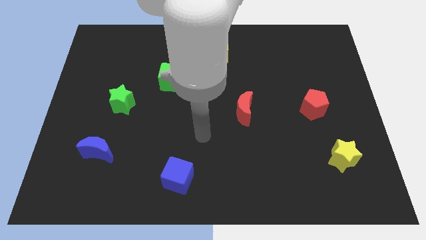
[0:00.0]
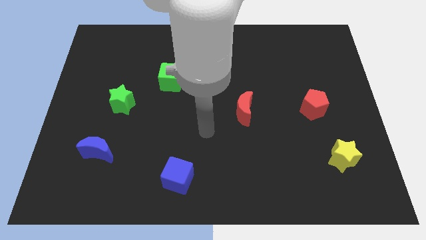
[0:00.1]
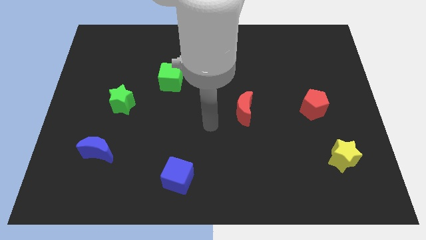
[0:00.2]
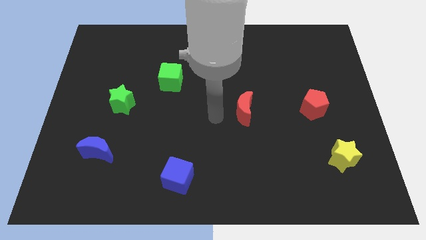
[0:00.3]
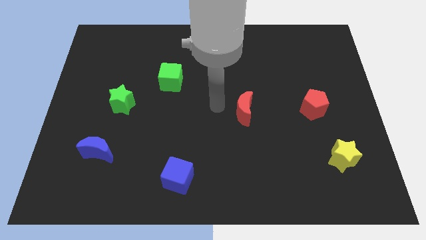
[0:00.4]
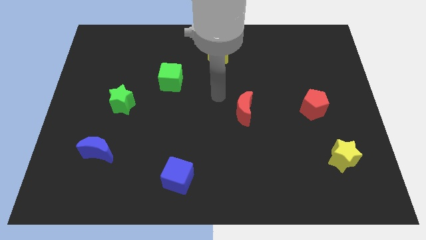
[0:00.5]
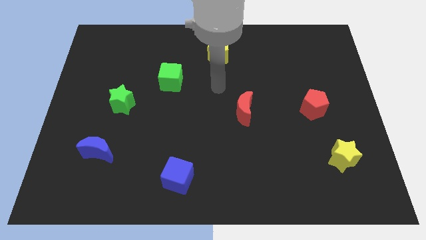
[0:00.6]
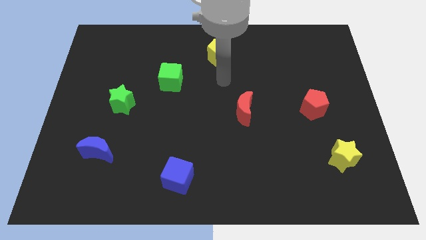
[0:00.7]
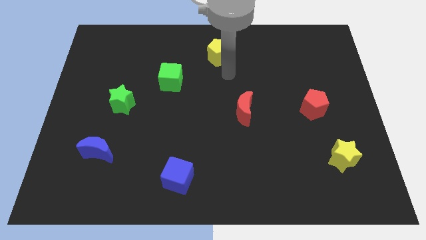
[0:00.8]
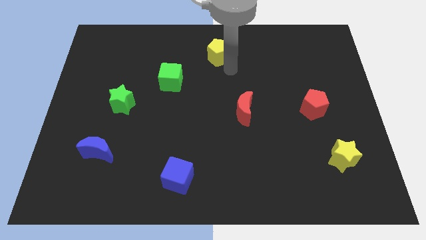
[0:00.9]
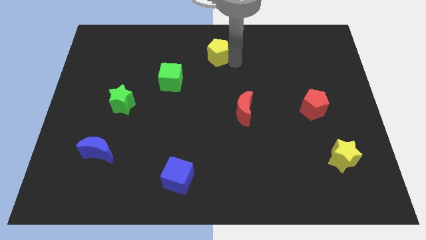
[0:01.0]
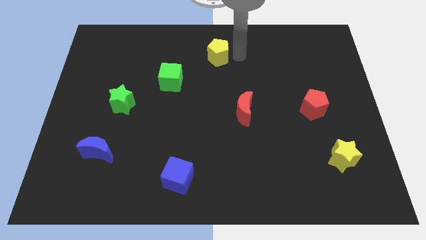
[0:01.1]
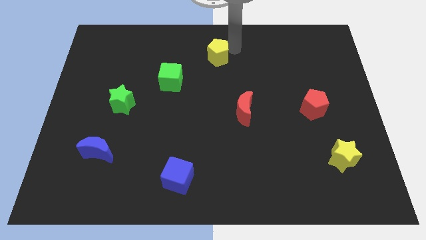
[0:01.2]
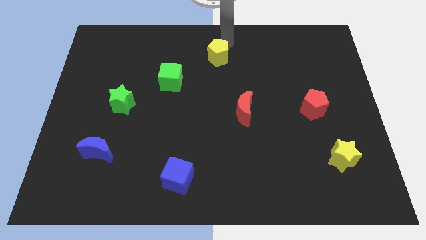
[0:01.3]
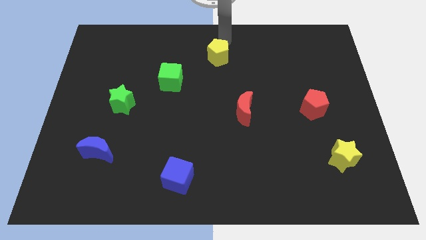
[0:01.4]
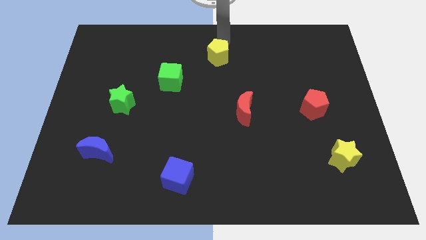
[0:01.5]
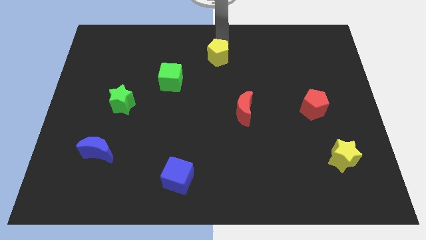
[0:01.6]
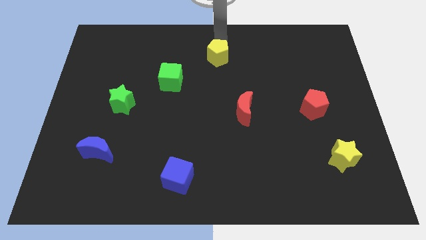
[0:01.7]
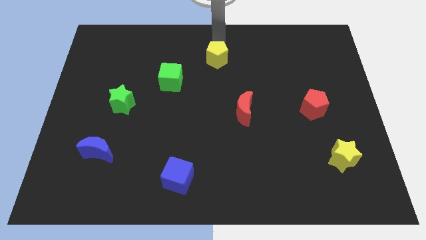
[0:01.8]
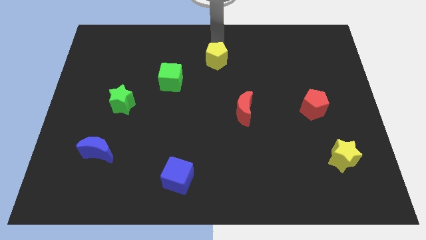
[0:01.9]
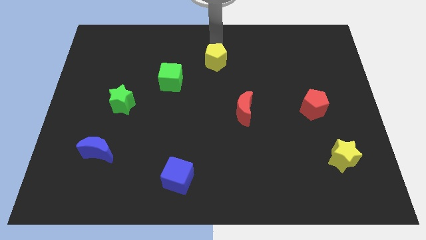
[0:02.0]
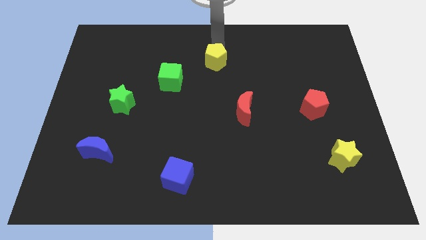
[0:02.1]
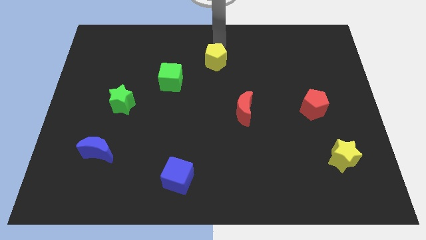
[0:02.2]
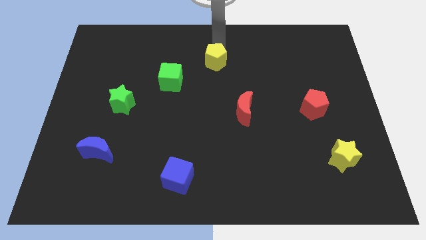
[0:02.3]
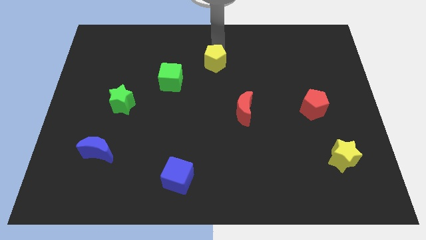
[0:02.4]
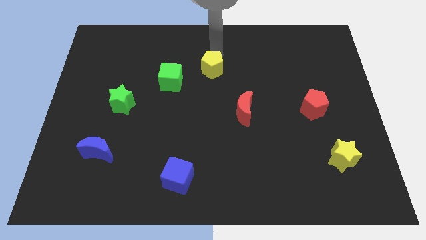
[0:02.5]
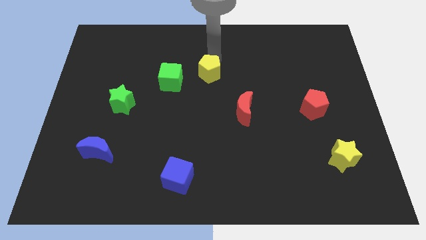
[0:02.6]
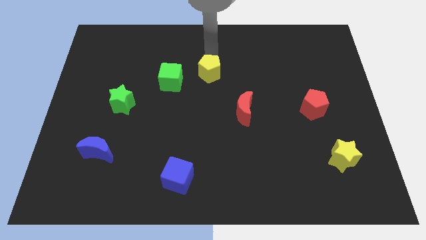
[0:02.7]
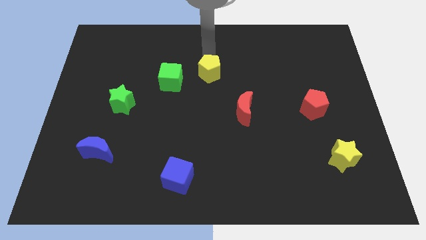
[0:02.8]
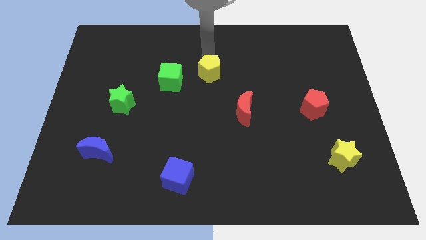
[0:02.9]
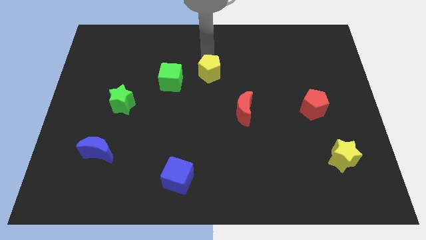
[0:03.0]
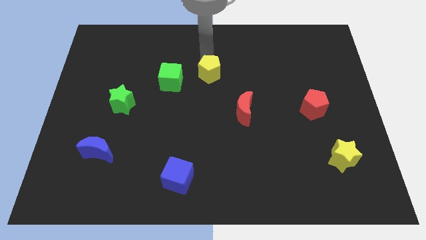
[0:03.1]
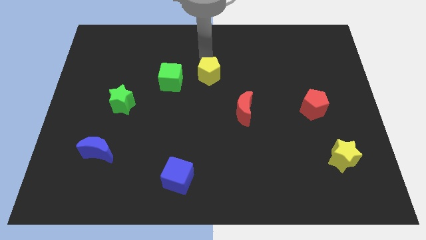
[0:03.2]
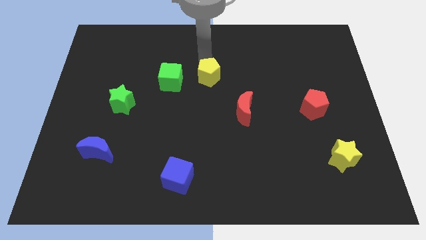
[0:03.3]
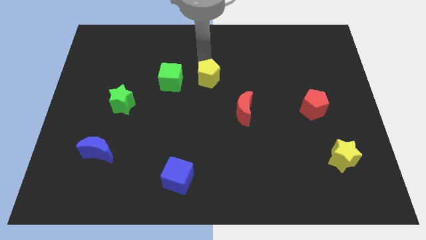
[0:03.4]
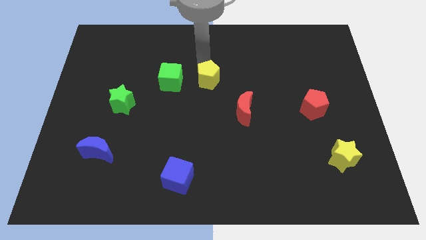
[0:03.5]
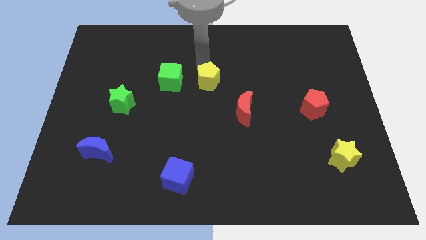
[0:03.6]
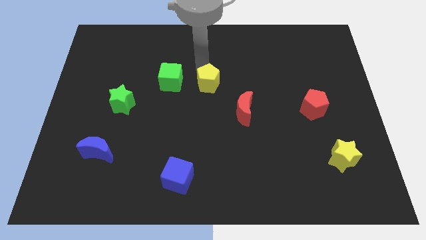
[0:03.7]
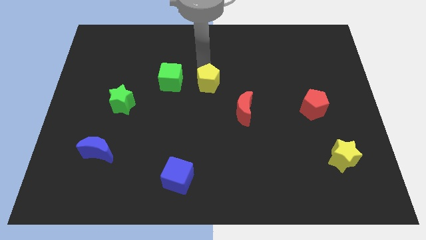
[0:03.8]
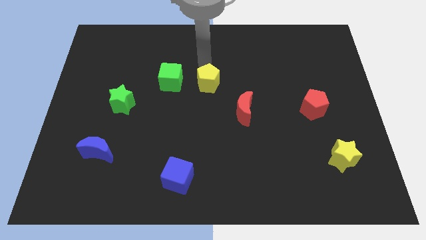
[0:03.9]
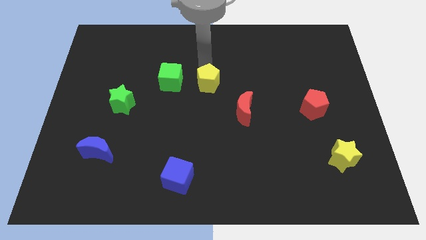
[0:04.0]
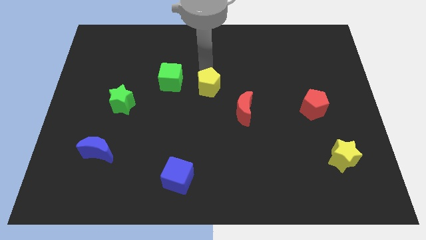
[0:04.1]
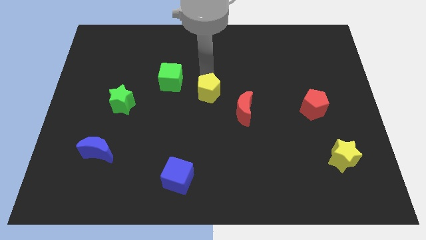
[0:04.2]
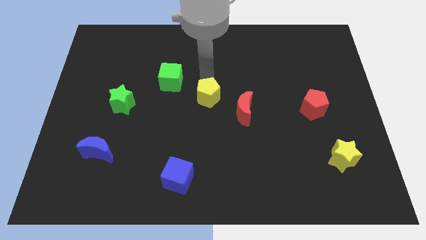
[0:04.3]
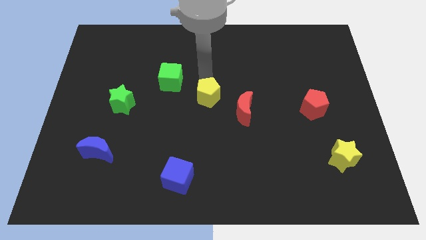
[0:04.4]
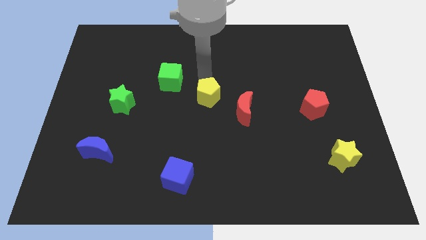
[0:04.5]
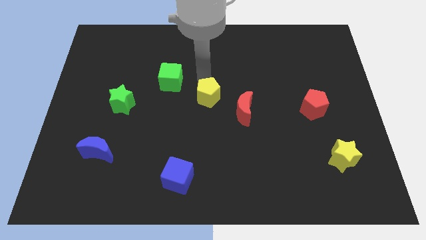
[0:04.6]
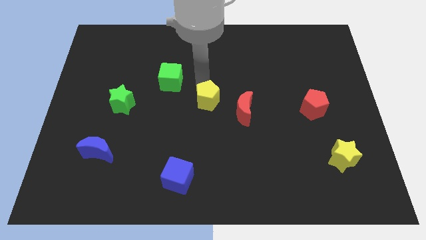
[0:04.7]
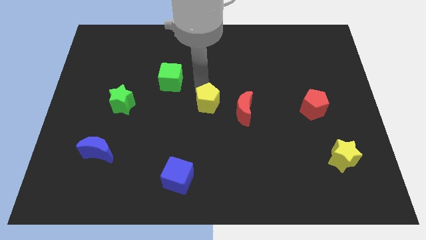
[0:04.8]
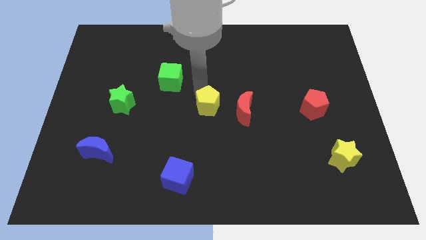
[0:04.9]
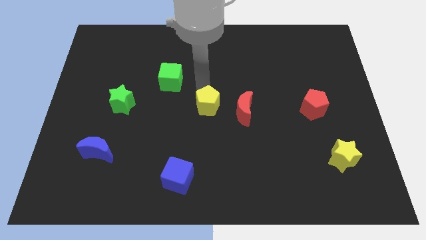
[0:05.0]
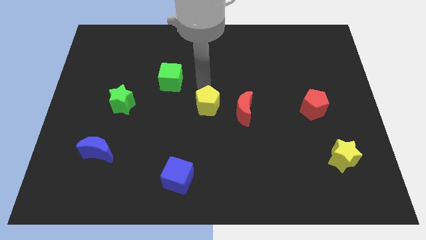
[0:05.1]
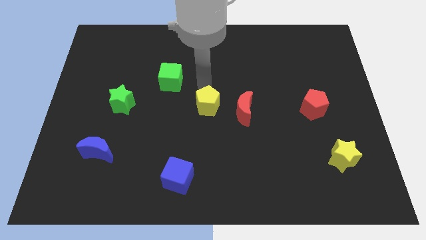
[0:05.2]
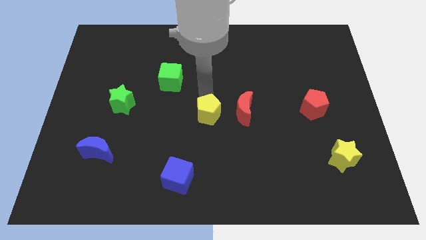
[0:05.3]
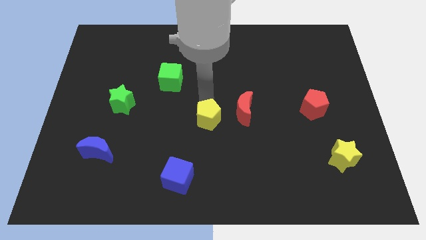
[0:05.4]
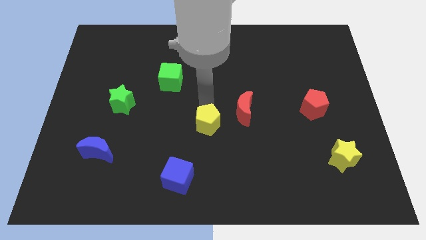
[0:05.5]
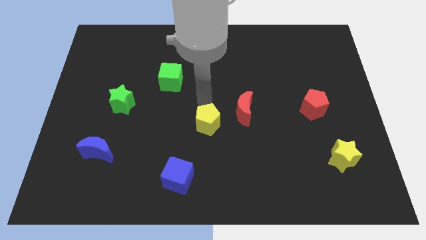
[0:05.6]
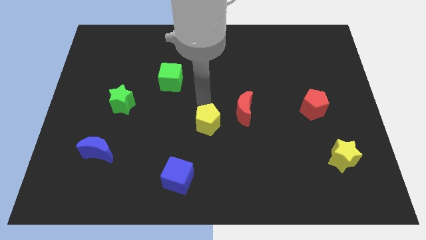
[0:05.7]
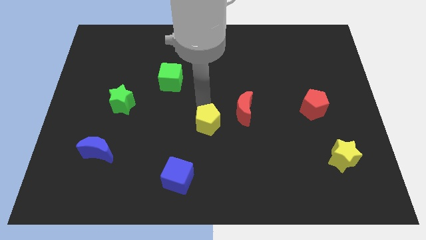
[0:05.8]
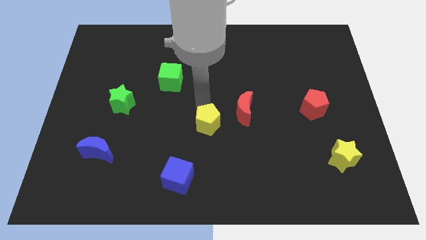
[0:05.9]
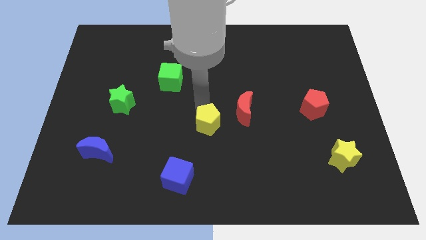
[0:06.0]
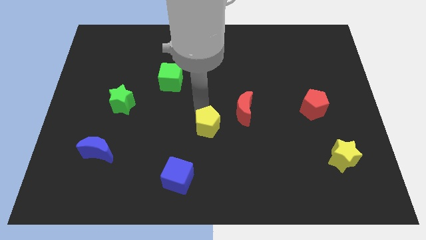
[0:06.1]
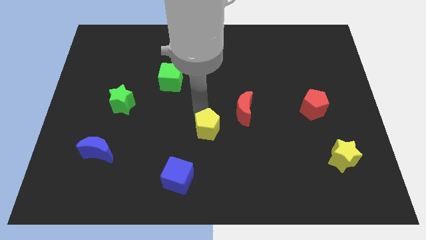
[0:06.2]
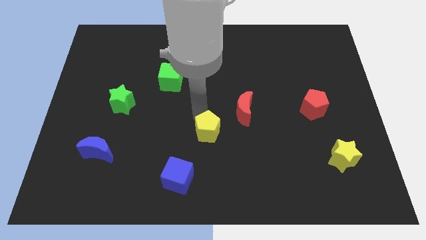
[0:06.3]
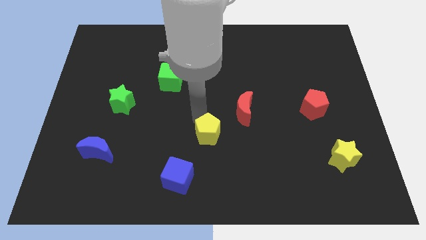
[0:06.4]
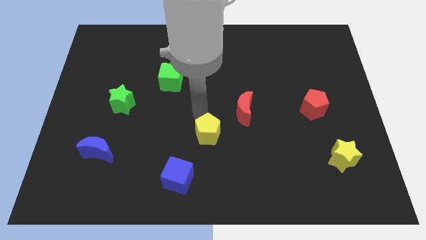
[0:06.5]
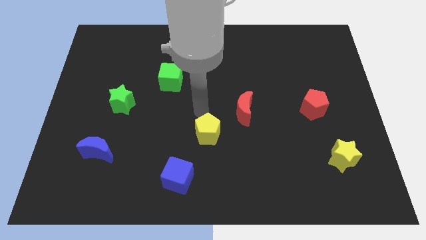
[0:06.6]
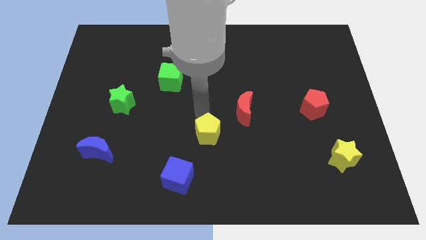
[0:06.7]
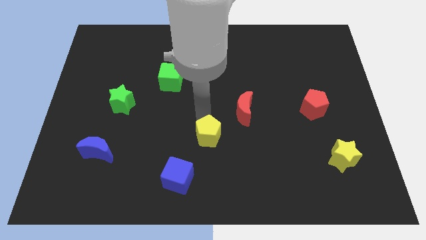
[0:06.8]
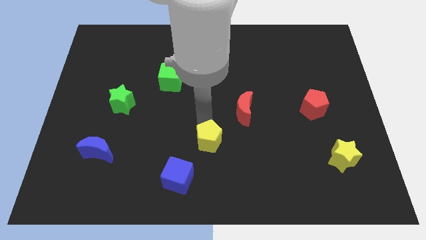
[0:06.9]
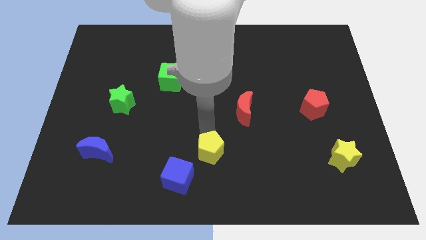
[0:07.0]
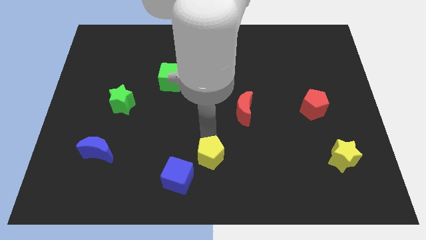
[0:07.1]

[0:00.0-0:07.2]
slide the yellow pentagon to the bottom
